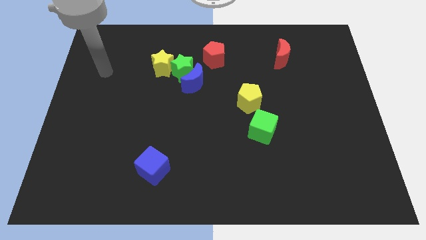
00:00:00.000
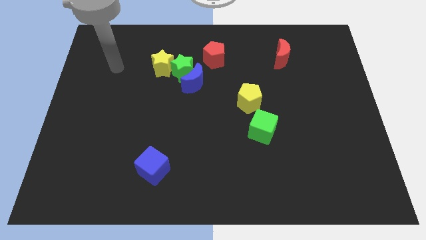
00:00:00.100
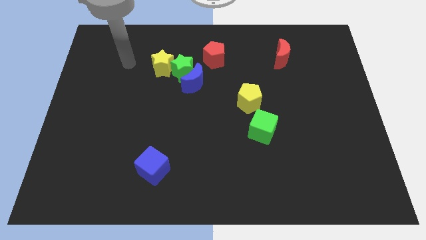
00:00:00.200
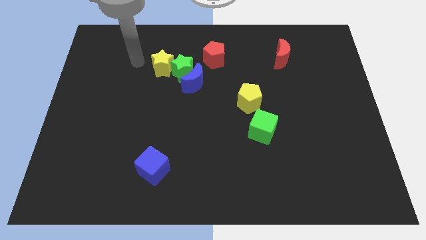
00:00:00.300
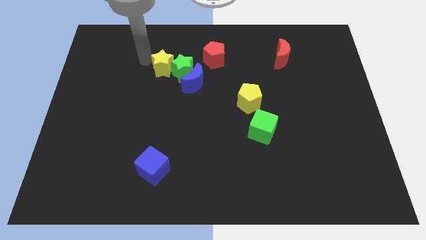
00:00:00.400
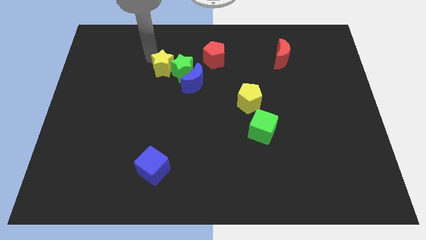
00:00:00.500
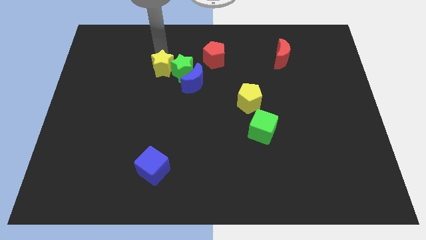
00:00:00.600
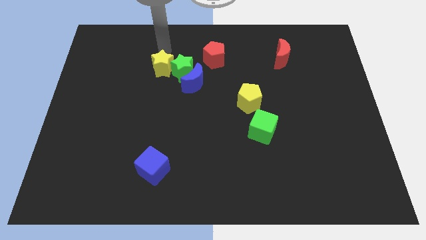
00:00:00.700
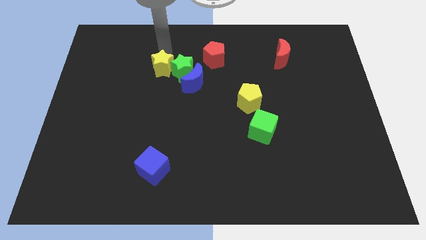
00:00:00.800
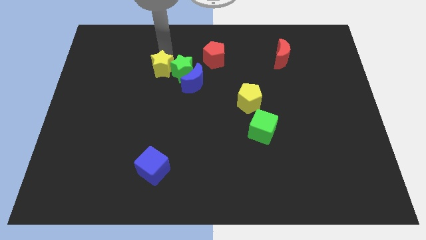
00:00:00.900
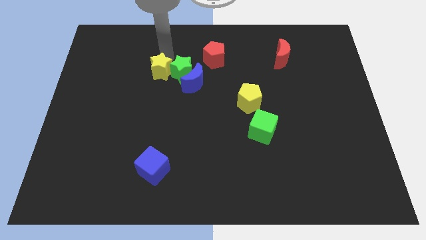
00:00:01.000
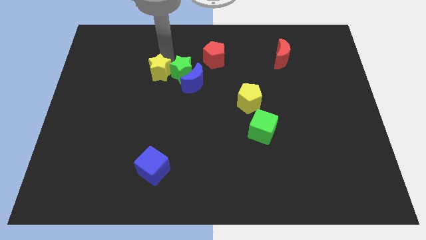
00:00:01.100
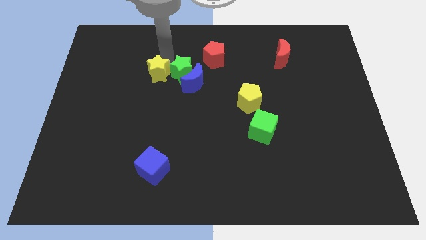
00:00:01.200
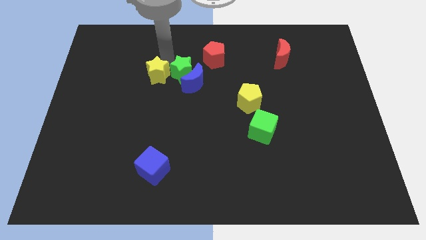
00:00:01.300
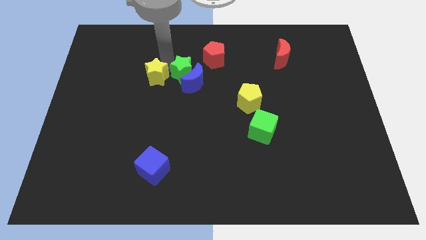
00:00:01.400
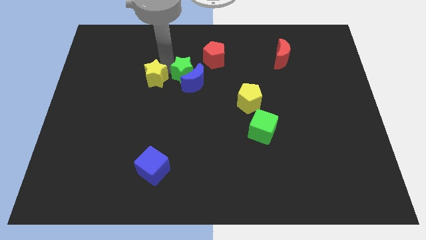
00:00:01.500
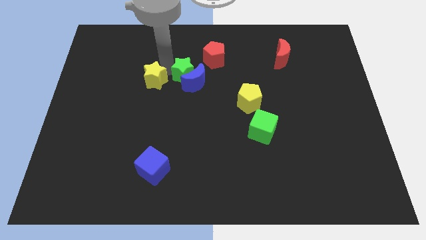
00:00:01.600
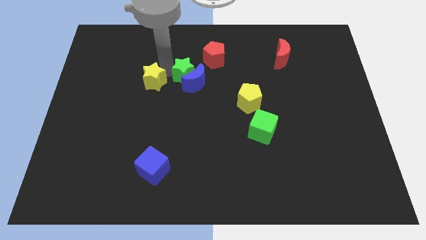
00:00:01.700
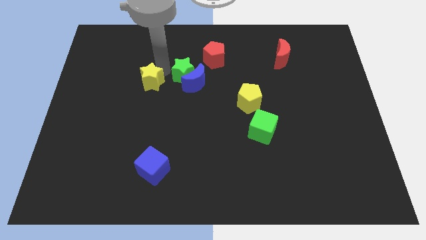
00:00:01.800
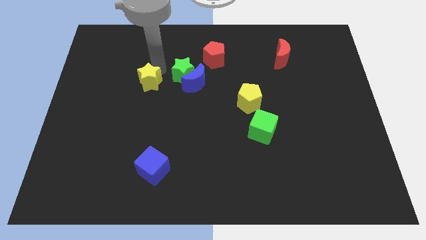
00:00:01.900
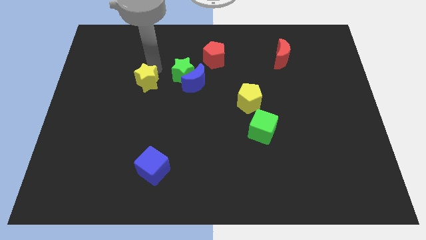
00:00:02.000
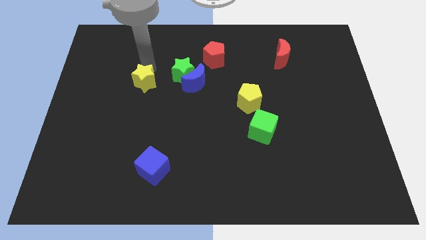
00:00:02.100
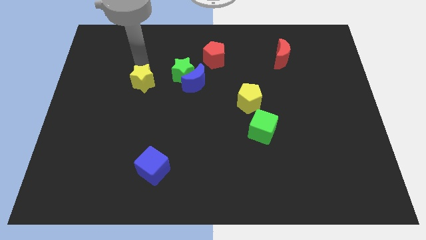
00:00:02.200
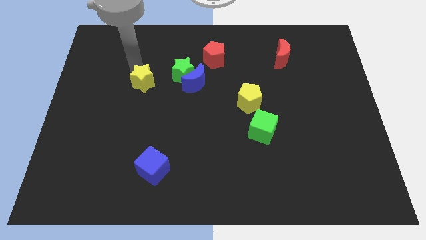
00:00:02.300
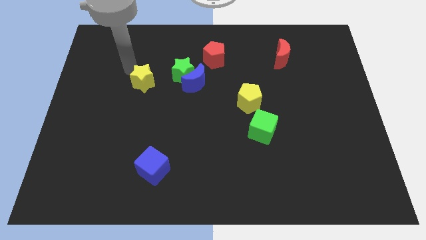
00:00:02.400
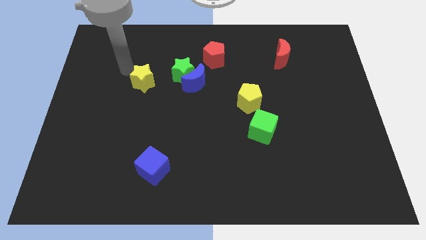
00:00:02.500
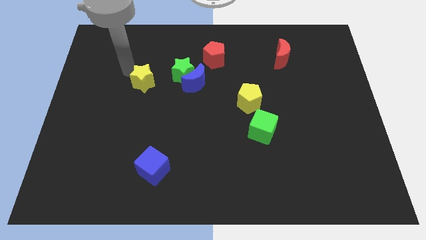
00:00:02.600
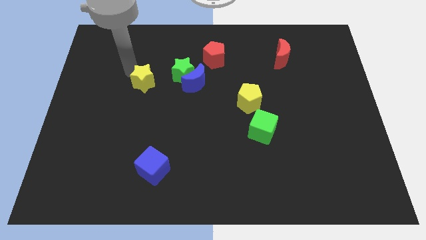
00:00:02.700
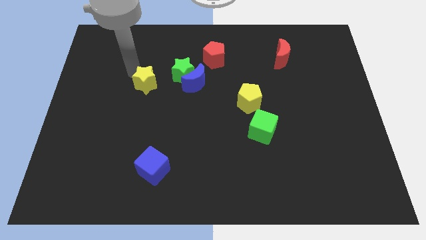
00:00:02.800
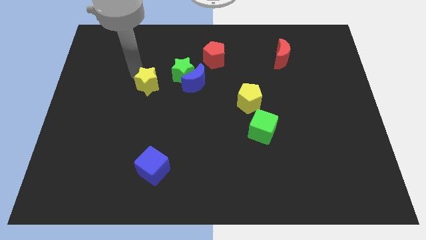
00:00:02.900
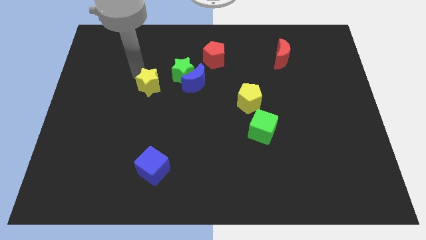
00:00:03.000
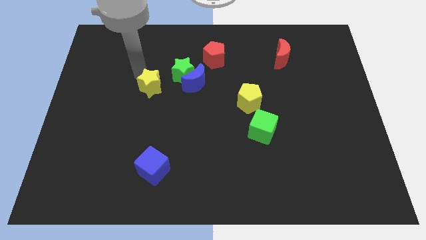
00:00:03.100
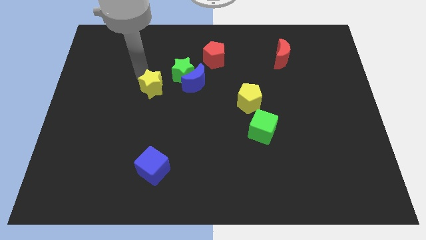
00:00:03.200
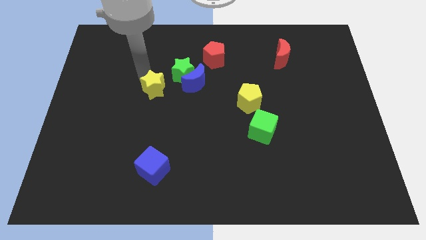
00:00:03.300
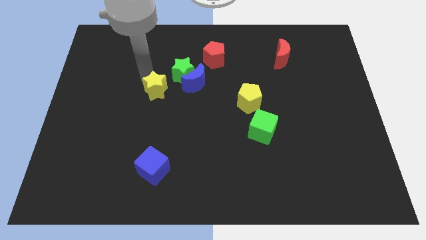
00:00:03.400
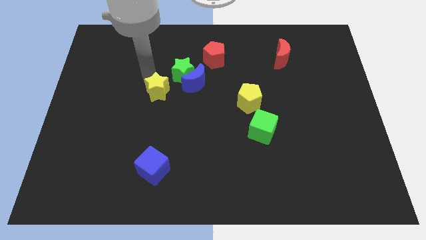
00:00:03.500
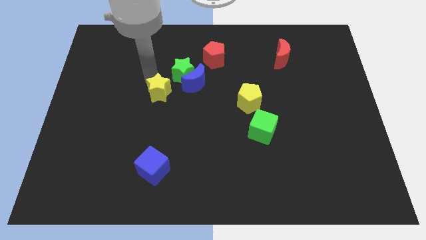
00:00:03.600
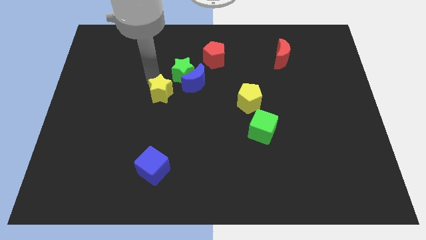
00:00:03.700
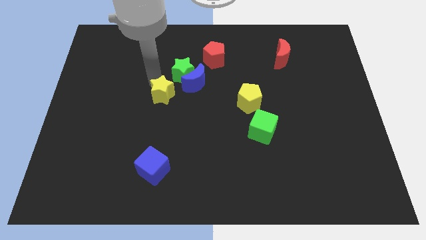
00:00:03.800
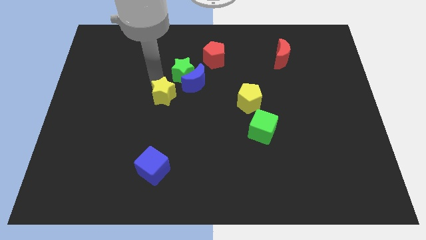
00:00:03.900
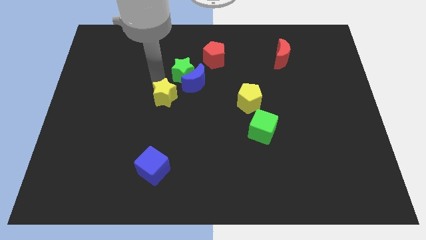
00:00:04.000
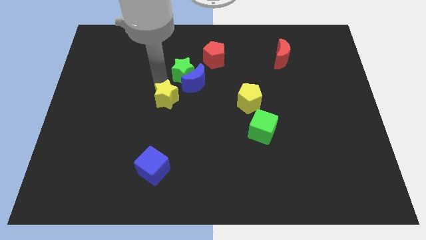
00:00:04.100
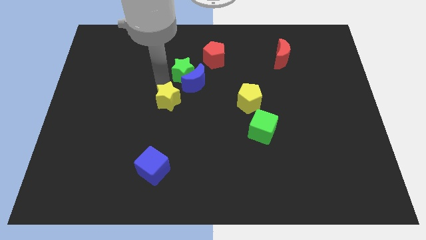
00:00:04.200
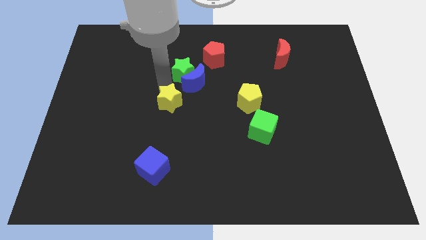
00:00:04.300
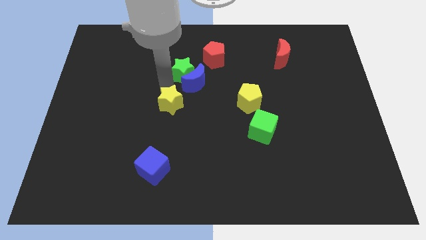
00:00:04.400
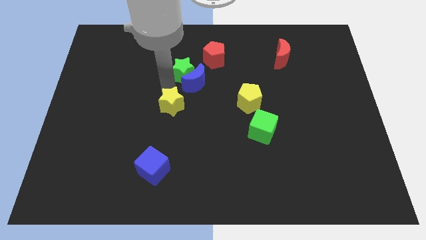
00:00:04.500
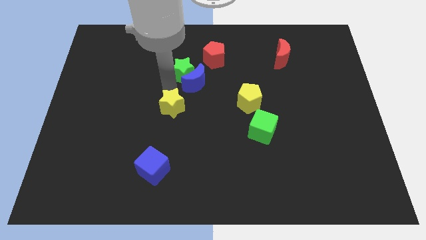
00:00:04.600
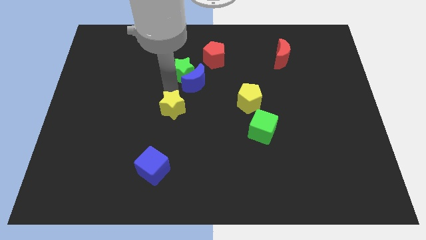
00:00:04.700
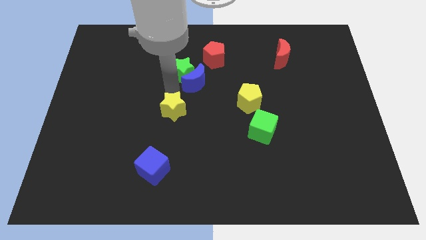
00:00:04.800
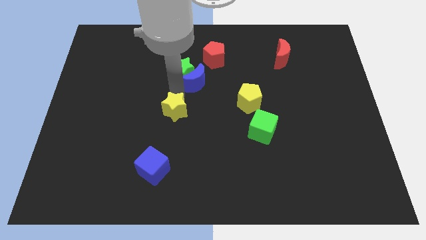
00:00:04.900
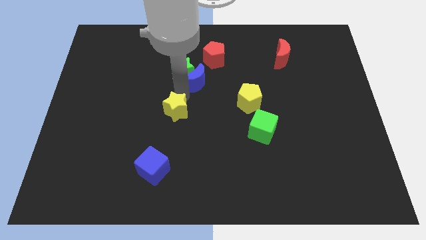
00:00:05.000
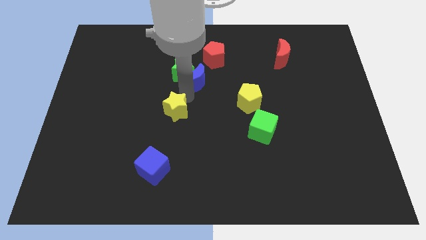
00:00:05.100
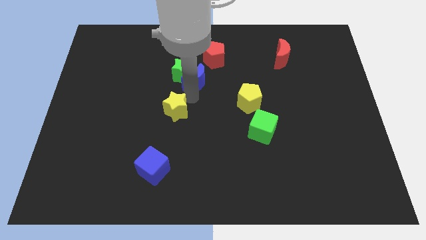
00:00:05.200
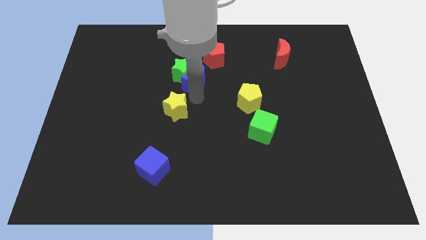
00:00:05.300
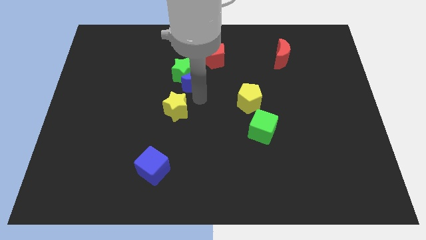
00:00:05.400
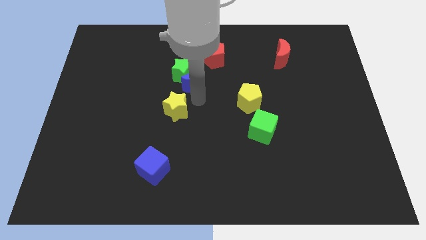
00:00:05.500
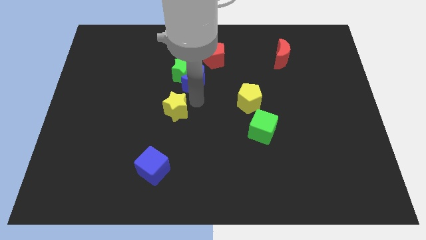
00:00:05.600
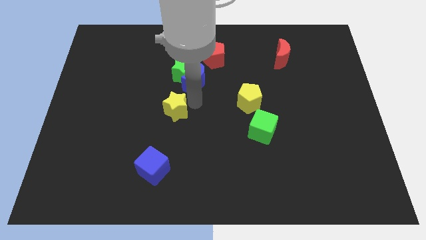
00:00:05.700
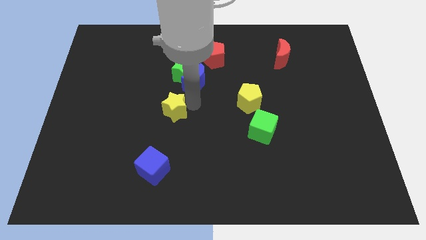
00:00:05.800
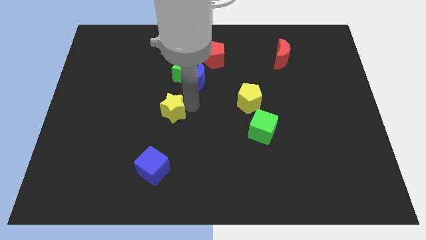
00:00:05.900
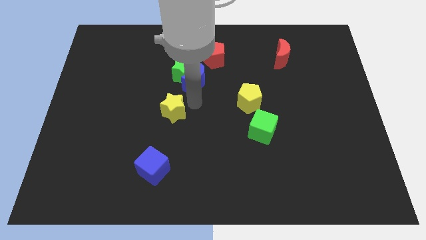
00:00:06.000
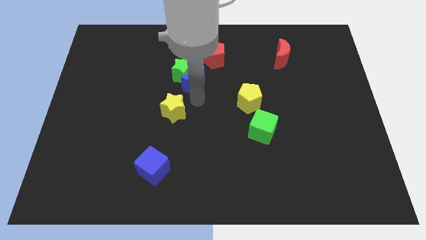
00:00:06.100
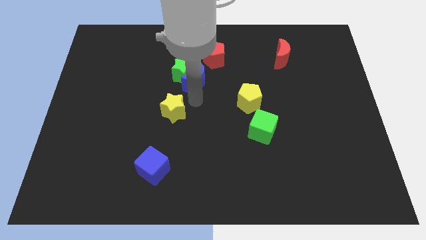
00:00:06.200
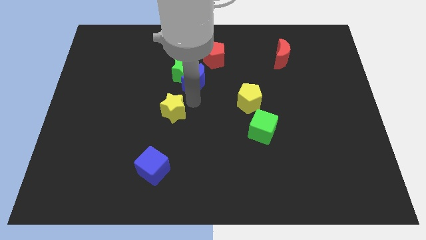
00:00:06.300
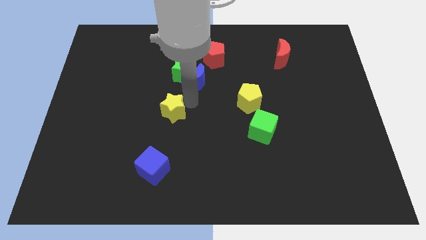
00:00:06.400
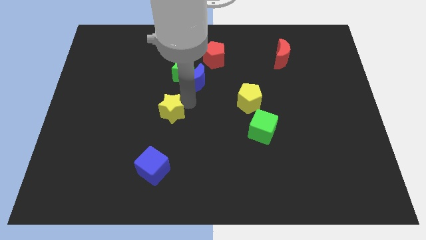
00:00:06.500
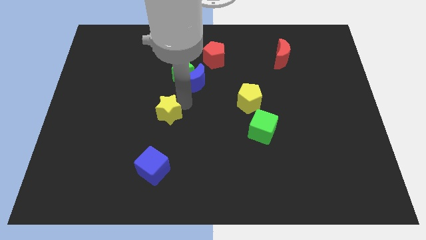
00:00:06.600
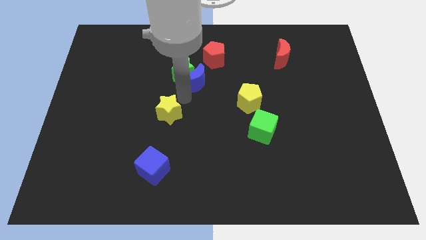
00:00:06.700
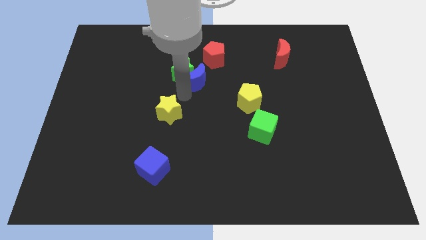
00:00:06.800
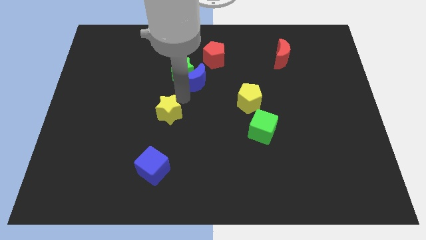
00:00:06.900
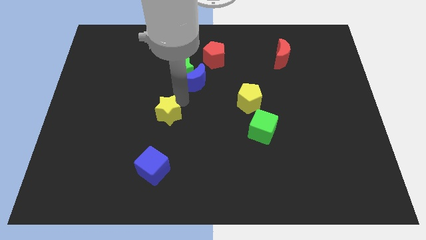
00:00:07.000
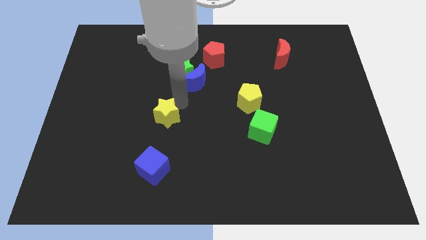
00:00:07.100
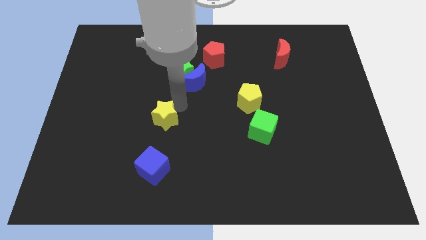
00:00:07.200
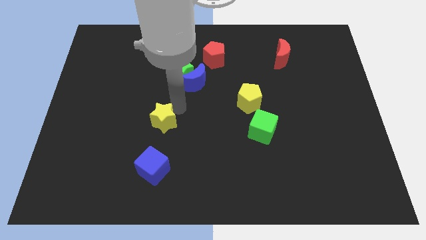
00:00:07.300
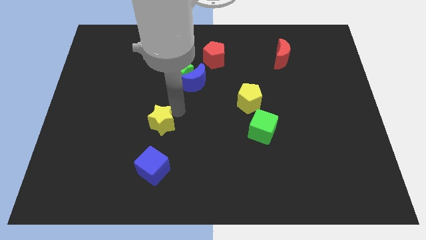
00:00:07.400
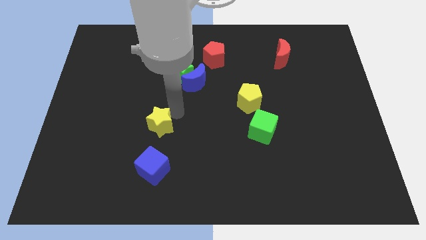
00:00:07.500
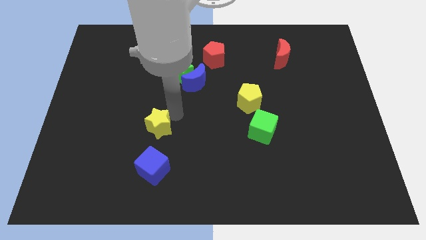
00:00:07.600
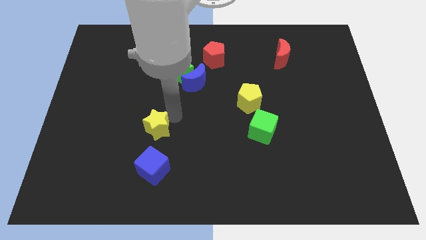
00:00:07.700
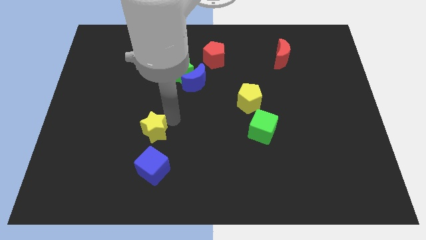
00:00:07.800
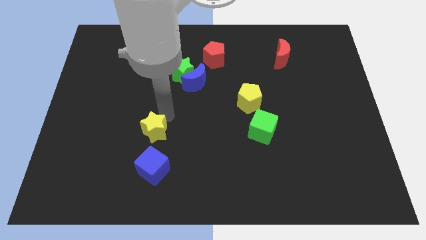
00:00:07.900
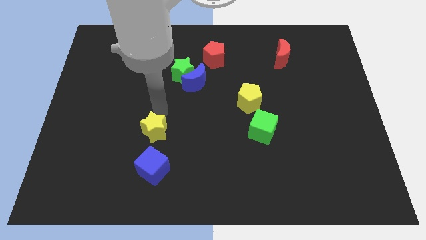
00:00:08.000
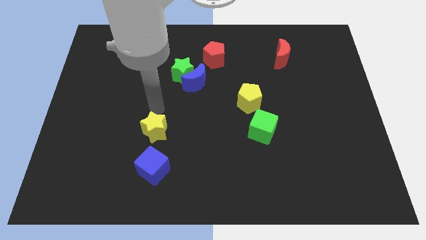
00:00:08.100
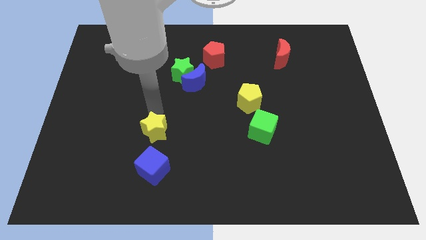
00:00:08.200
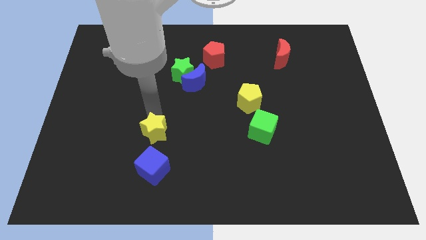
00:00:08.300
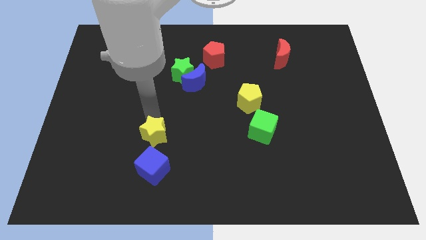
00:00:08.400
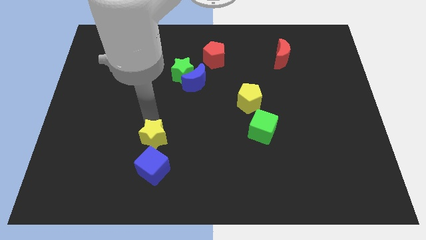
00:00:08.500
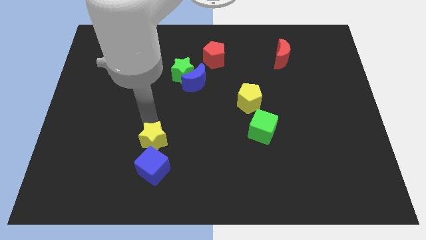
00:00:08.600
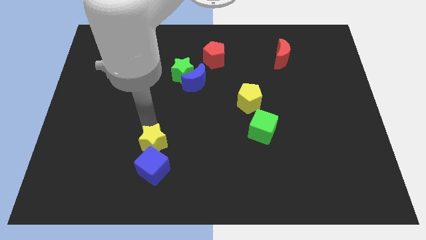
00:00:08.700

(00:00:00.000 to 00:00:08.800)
put the yellow star towards the blue cube
